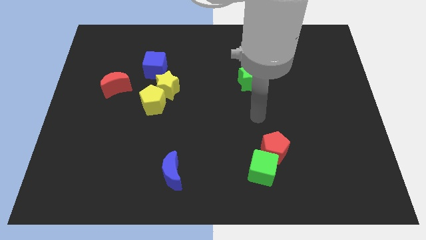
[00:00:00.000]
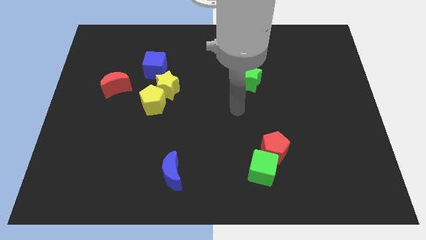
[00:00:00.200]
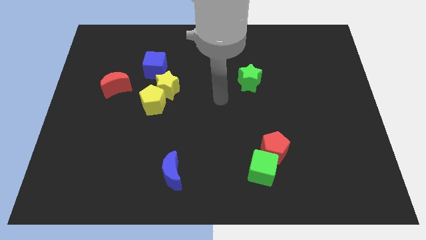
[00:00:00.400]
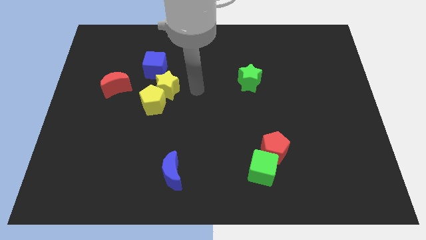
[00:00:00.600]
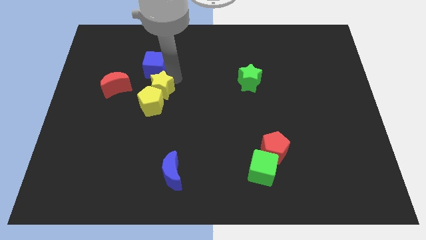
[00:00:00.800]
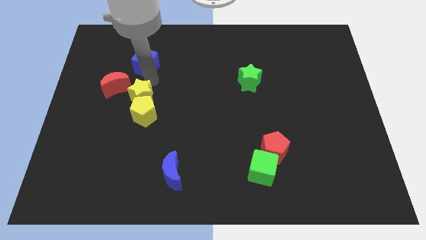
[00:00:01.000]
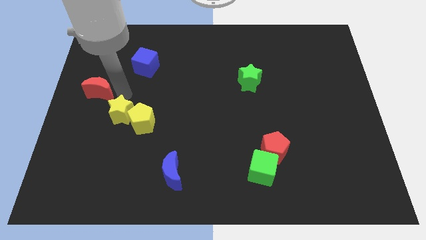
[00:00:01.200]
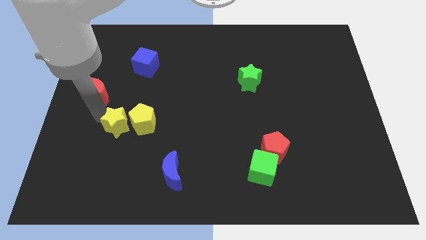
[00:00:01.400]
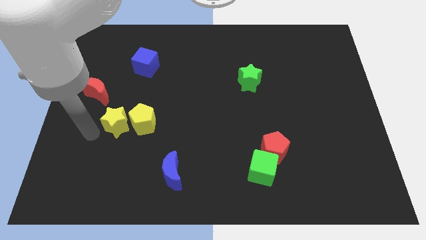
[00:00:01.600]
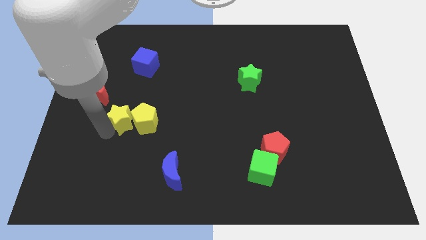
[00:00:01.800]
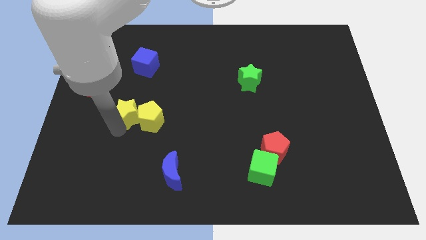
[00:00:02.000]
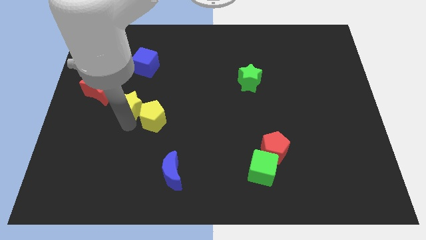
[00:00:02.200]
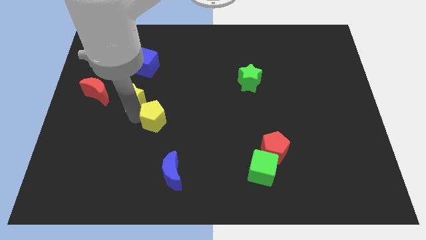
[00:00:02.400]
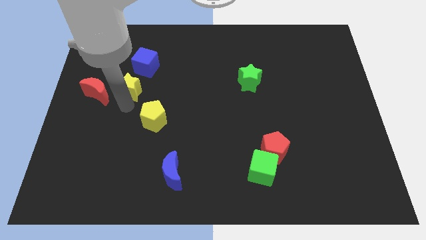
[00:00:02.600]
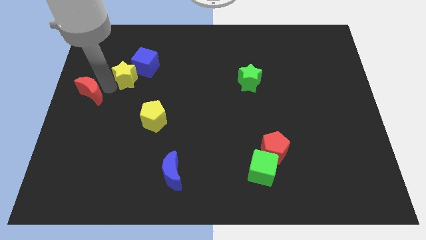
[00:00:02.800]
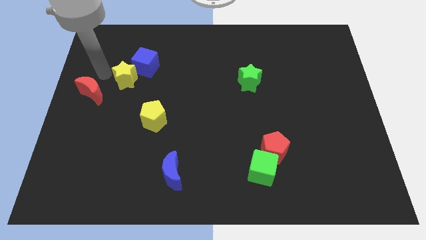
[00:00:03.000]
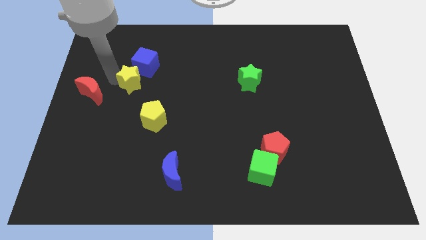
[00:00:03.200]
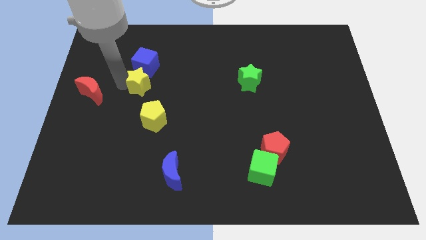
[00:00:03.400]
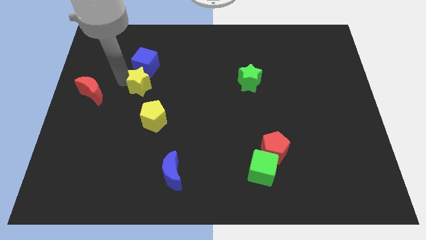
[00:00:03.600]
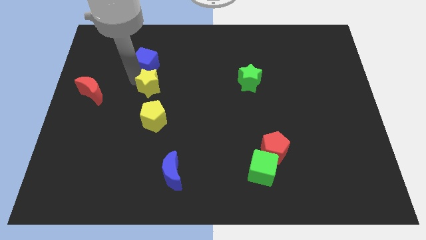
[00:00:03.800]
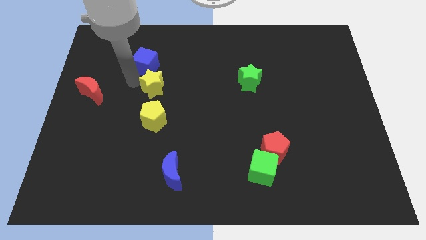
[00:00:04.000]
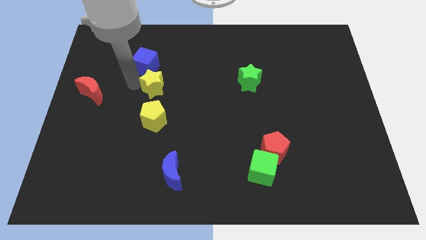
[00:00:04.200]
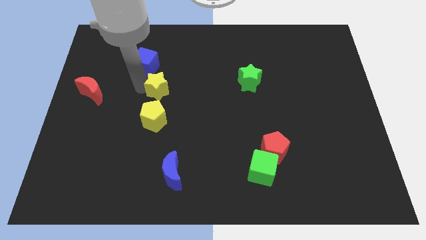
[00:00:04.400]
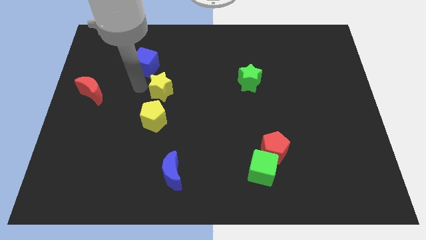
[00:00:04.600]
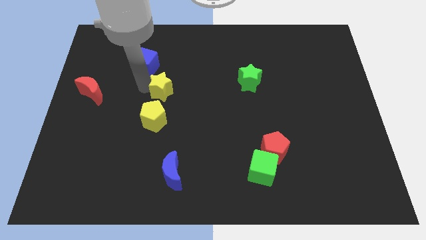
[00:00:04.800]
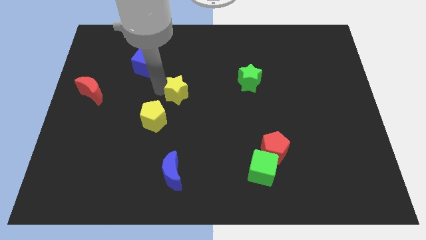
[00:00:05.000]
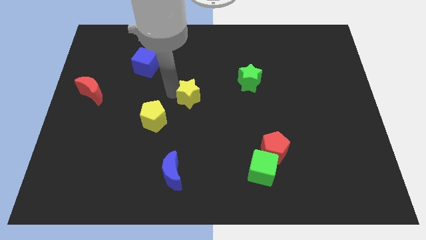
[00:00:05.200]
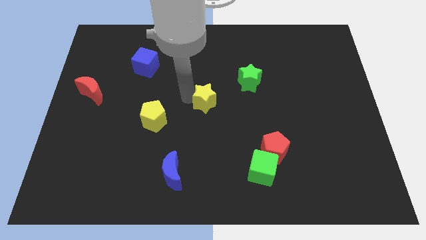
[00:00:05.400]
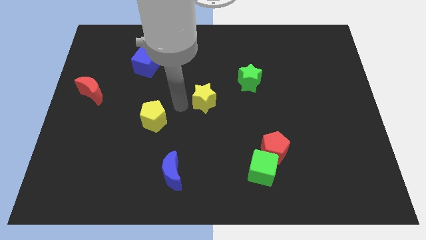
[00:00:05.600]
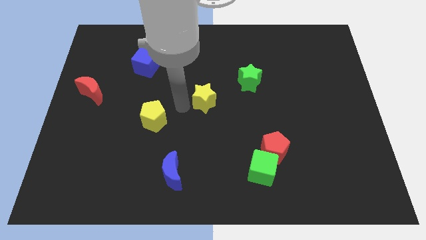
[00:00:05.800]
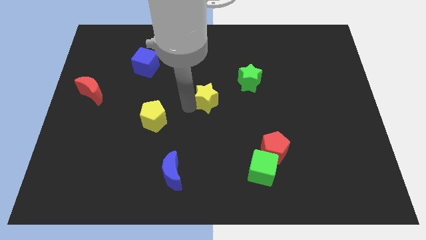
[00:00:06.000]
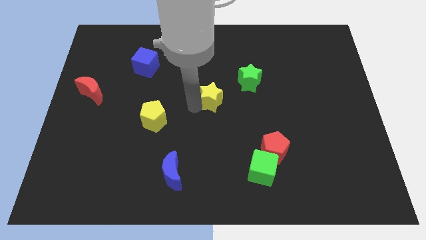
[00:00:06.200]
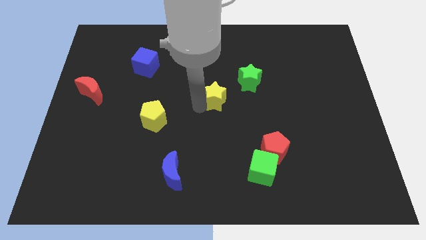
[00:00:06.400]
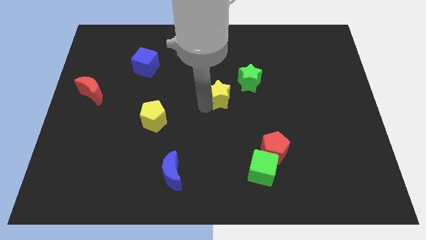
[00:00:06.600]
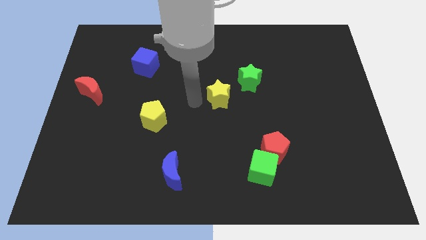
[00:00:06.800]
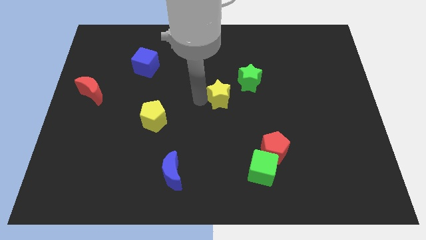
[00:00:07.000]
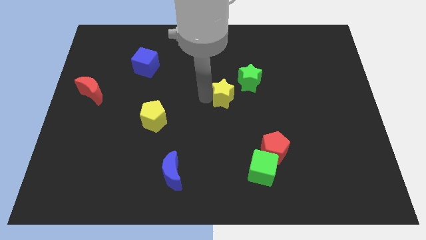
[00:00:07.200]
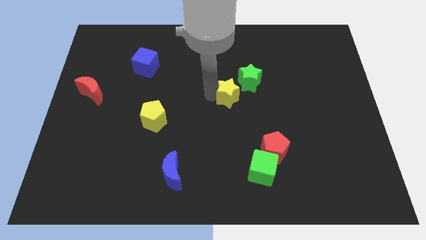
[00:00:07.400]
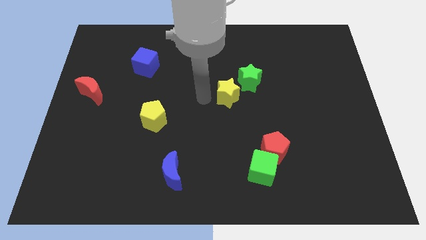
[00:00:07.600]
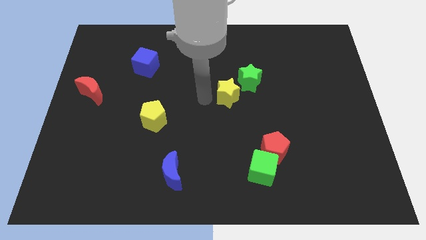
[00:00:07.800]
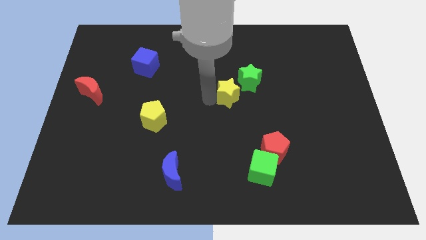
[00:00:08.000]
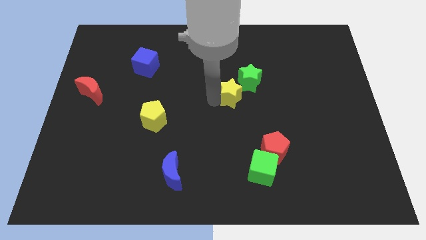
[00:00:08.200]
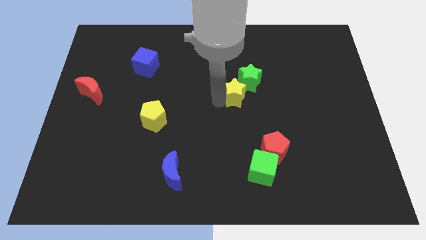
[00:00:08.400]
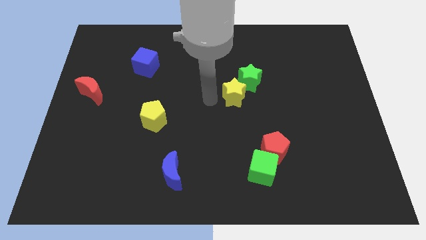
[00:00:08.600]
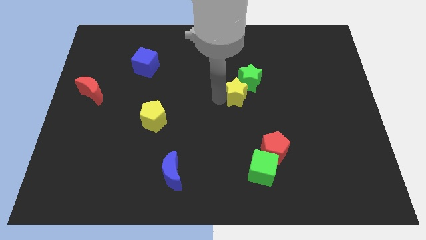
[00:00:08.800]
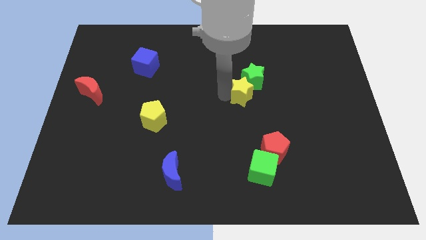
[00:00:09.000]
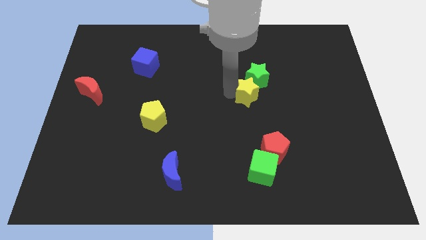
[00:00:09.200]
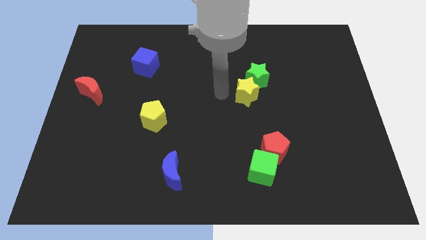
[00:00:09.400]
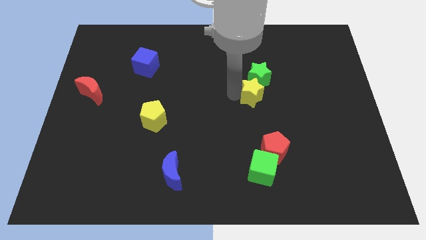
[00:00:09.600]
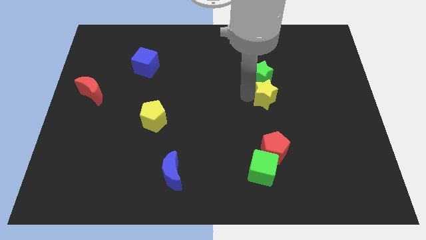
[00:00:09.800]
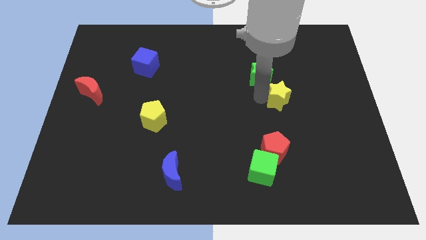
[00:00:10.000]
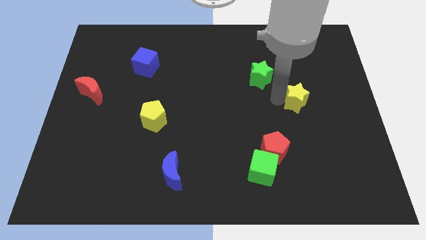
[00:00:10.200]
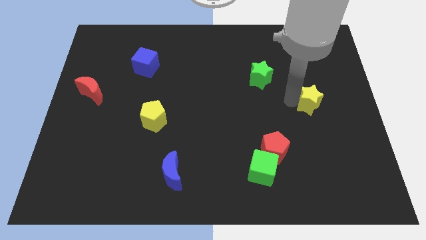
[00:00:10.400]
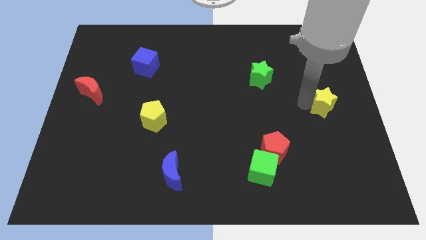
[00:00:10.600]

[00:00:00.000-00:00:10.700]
put the yellow star to the right side
